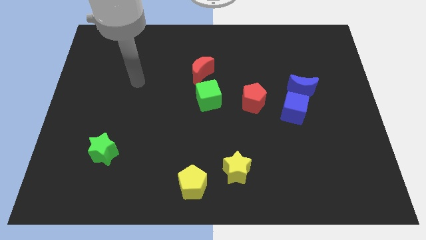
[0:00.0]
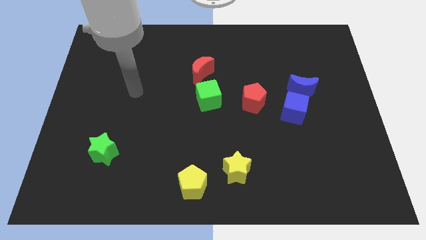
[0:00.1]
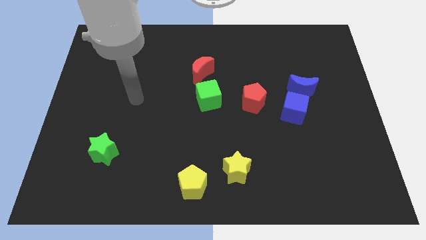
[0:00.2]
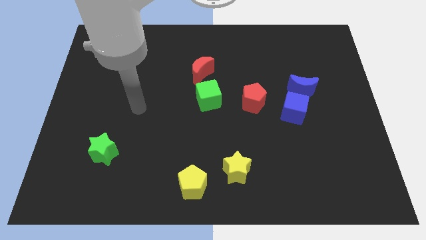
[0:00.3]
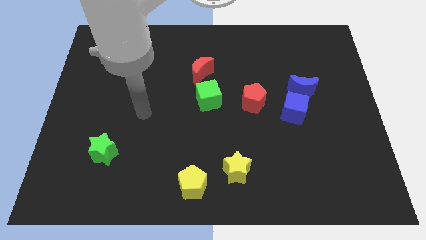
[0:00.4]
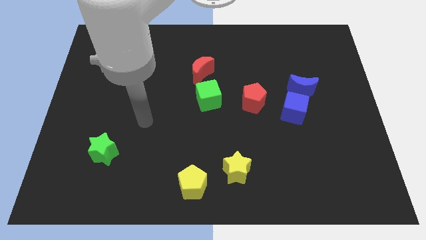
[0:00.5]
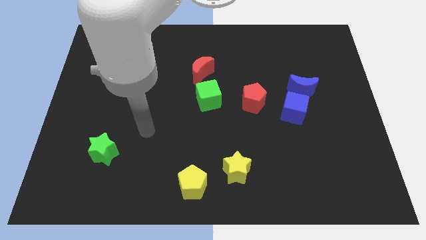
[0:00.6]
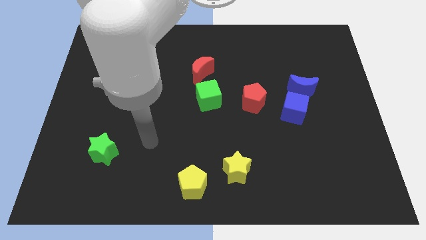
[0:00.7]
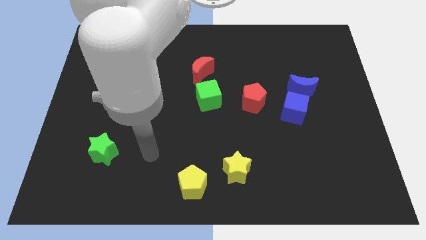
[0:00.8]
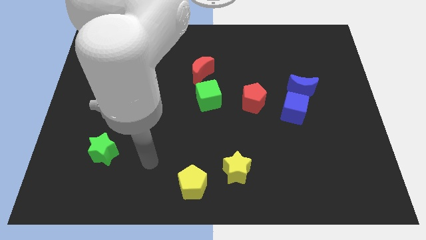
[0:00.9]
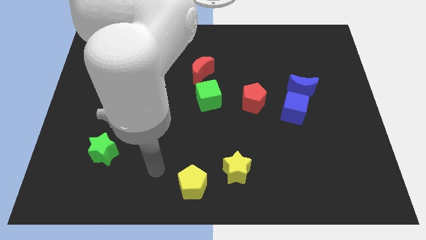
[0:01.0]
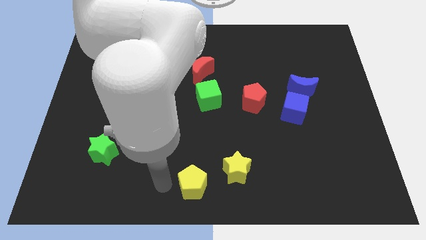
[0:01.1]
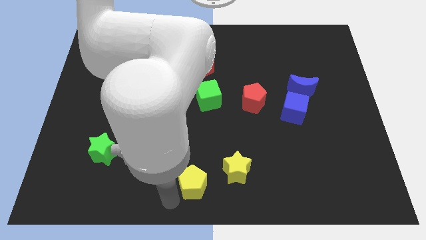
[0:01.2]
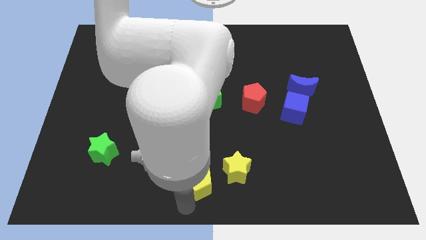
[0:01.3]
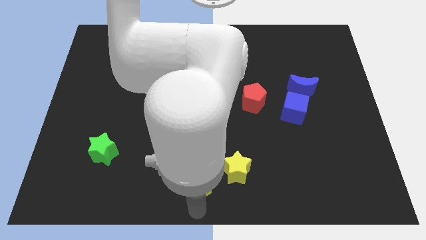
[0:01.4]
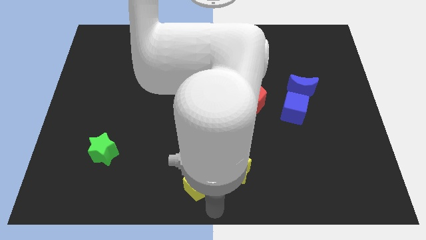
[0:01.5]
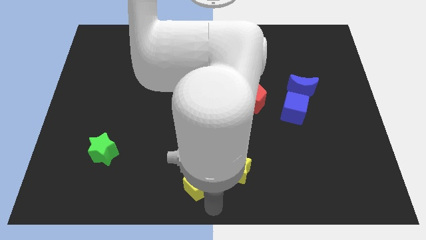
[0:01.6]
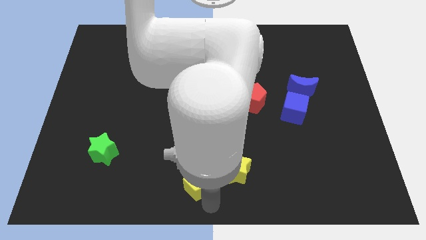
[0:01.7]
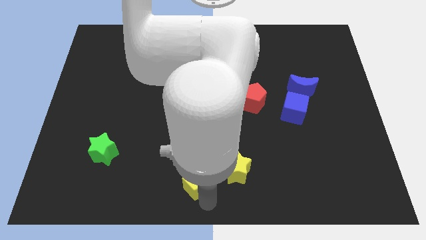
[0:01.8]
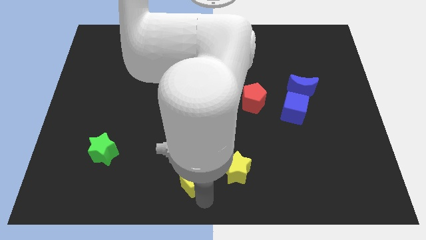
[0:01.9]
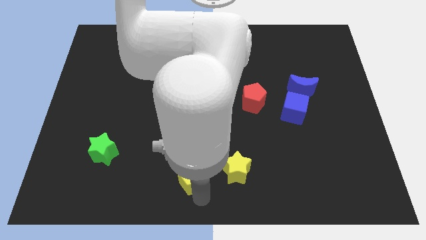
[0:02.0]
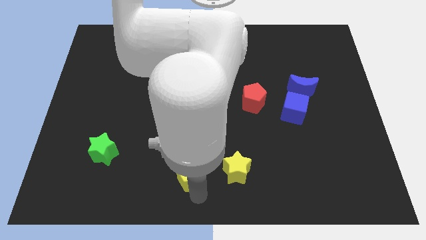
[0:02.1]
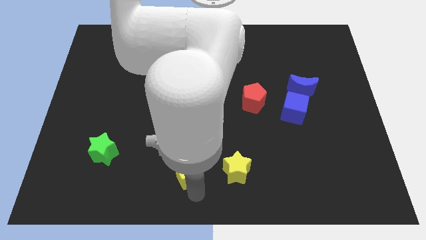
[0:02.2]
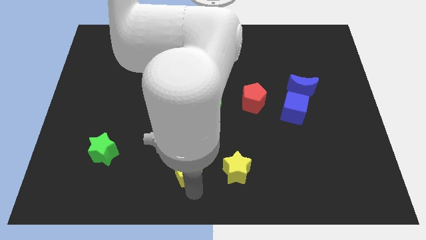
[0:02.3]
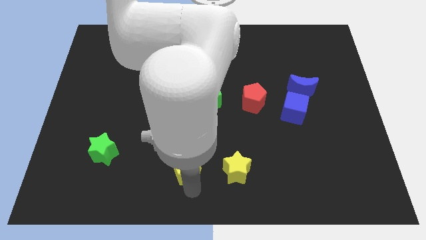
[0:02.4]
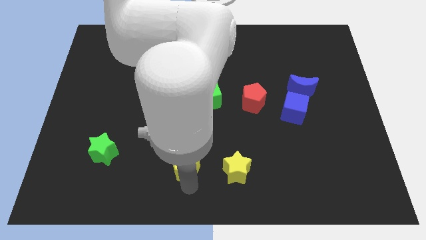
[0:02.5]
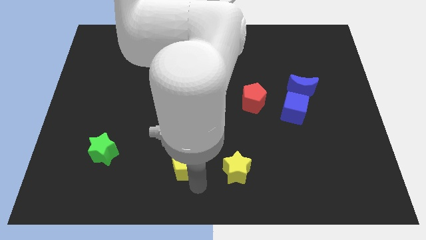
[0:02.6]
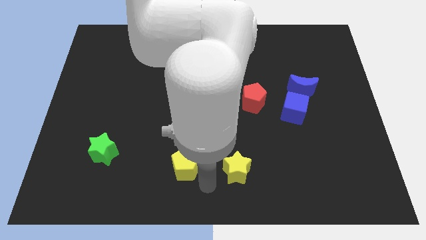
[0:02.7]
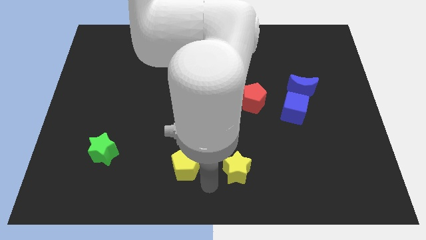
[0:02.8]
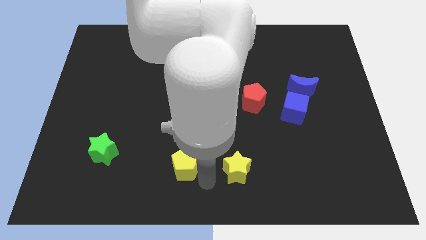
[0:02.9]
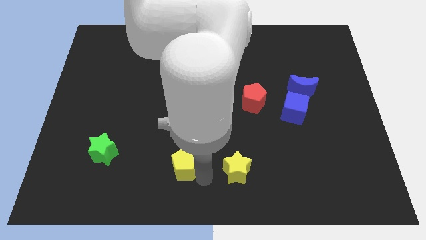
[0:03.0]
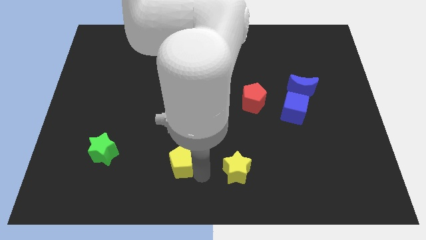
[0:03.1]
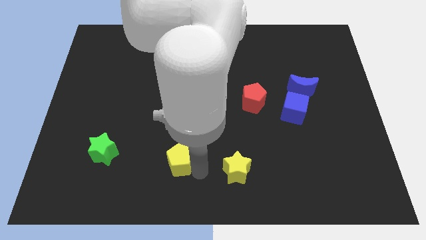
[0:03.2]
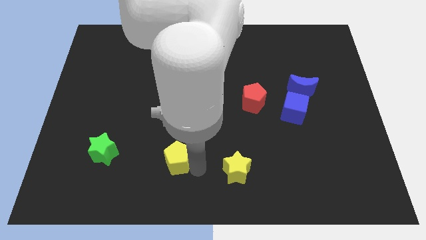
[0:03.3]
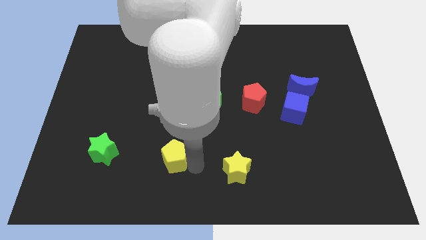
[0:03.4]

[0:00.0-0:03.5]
slide the yellow pentagon slightly up and to the left

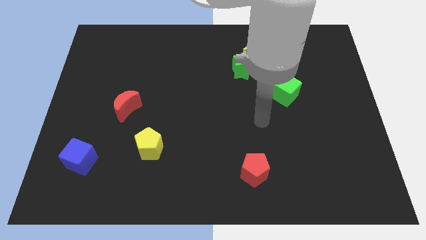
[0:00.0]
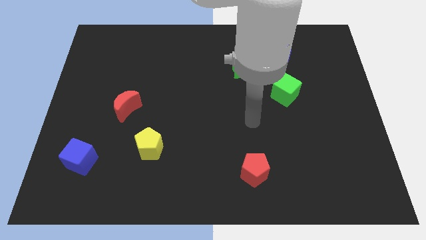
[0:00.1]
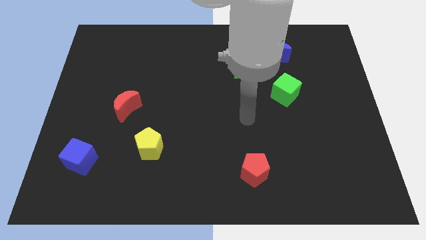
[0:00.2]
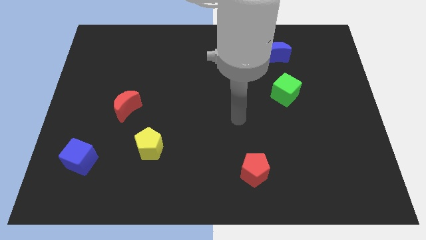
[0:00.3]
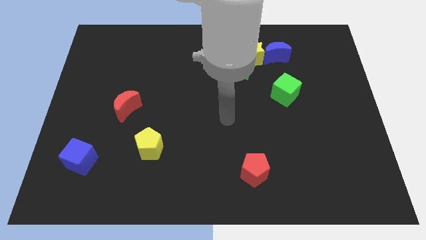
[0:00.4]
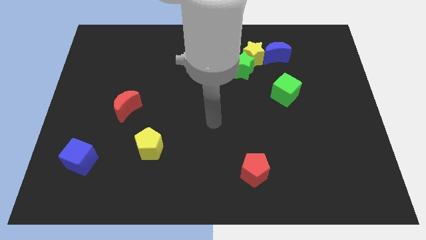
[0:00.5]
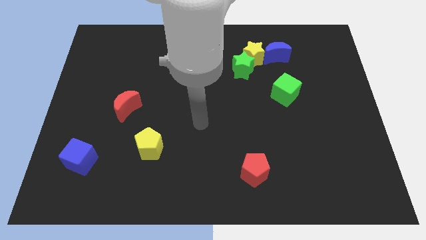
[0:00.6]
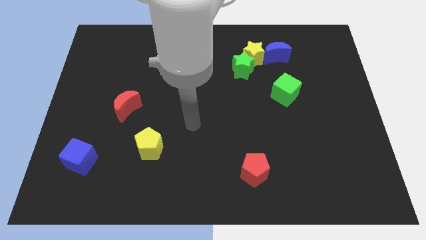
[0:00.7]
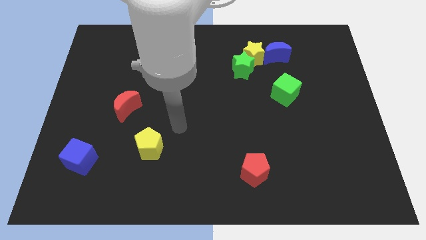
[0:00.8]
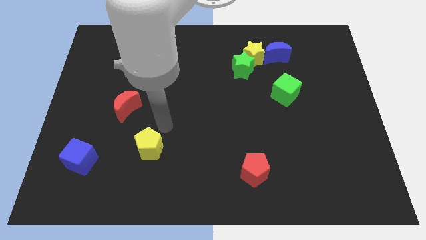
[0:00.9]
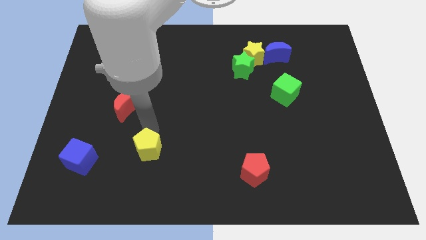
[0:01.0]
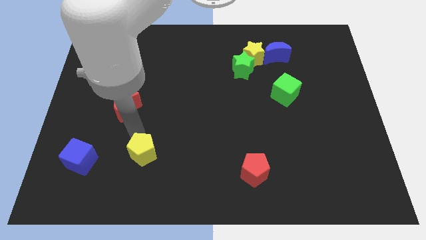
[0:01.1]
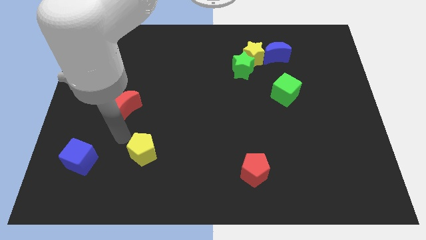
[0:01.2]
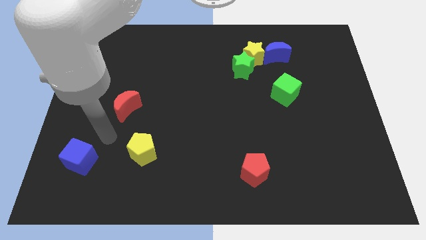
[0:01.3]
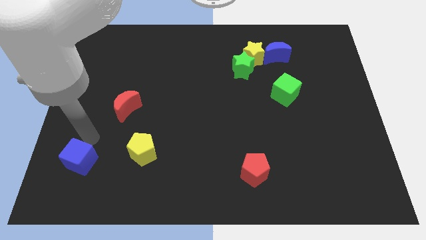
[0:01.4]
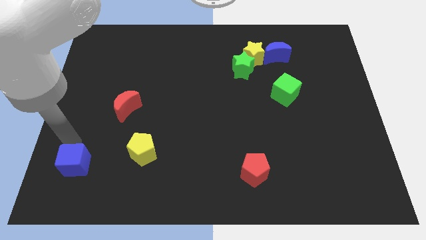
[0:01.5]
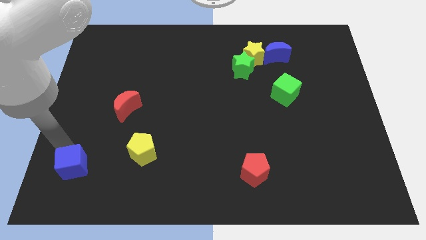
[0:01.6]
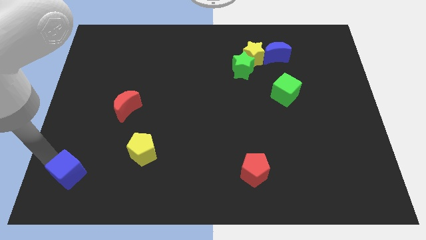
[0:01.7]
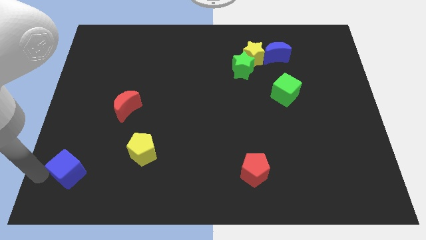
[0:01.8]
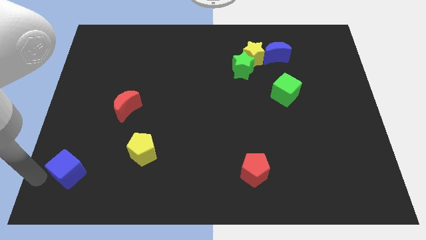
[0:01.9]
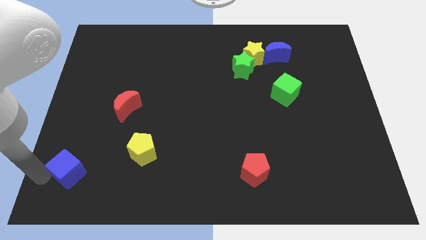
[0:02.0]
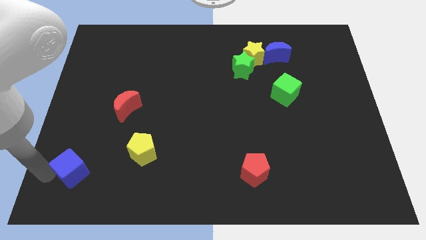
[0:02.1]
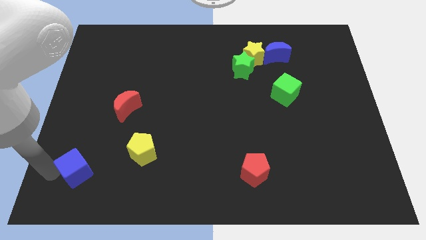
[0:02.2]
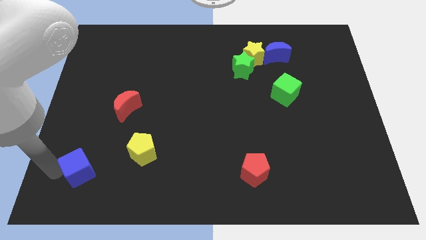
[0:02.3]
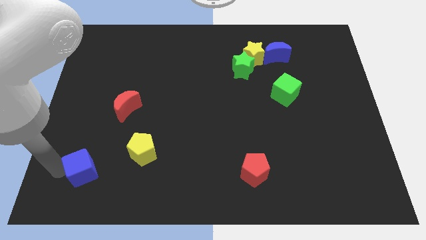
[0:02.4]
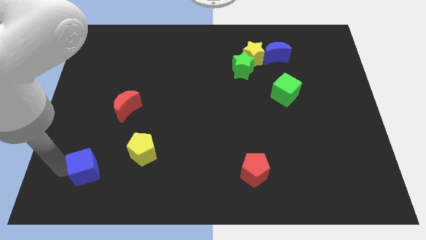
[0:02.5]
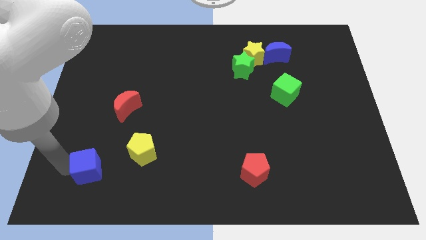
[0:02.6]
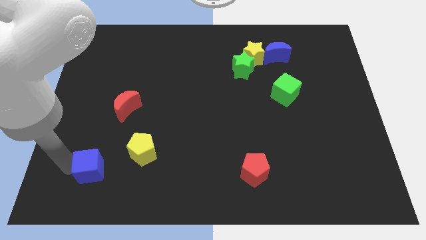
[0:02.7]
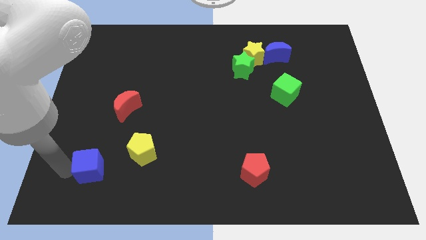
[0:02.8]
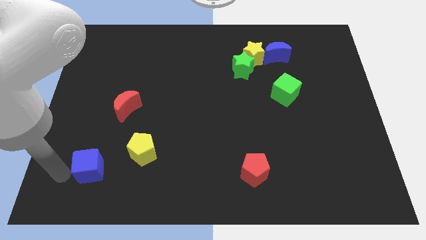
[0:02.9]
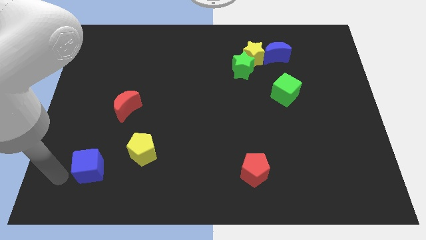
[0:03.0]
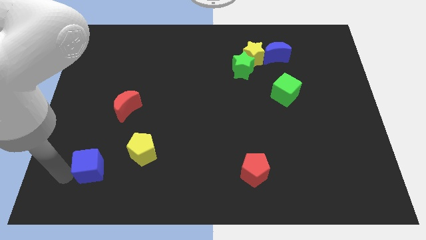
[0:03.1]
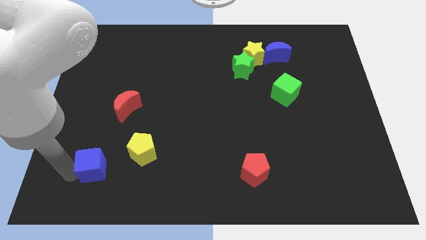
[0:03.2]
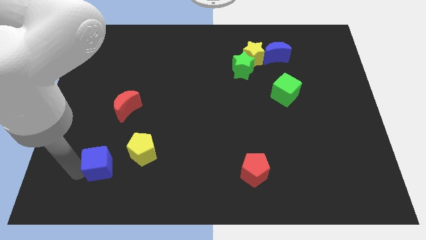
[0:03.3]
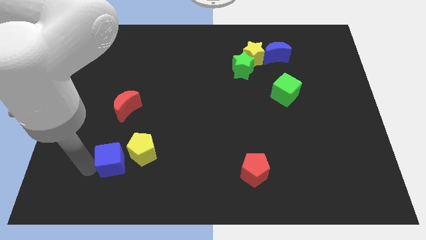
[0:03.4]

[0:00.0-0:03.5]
move the blue cube somewhat right

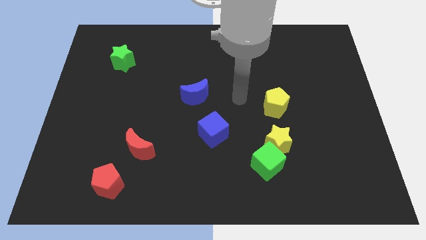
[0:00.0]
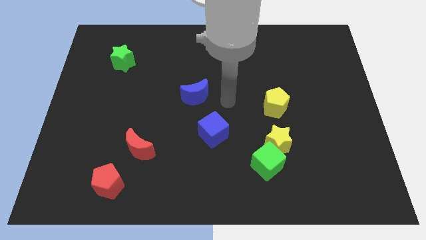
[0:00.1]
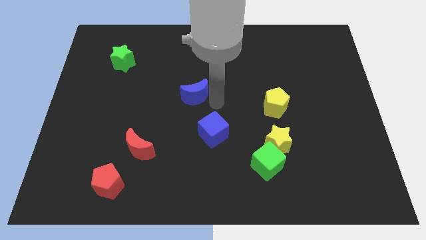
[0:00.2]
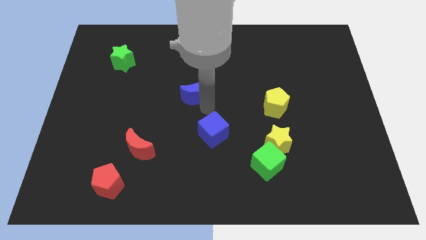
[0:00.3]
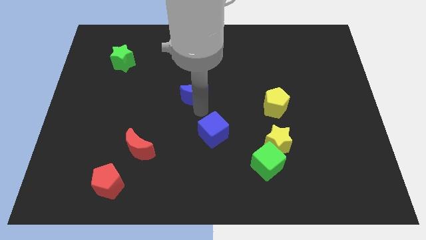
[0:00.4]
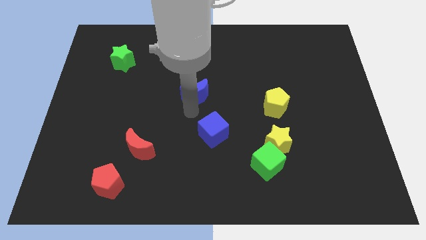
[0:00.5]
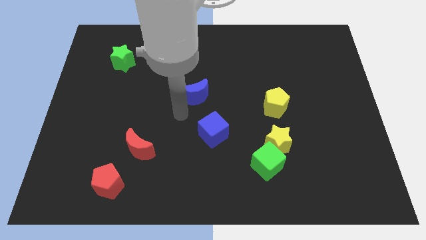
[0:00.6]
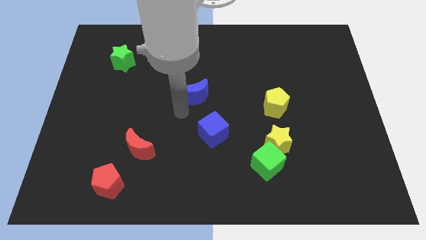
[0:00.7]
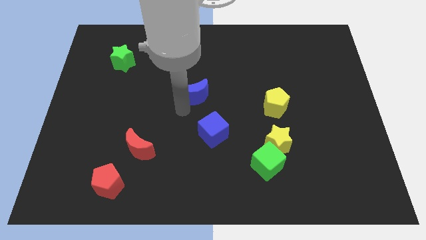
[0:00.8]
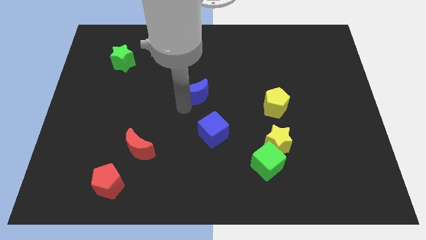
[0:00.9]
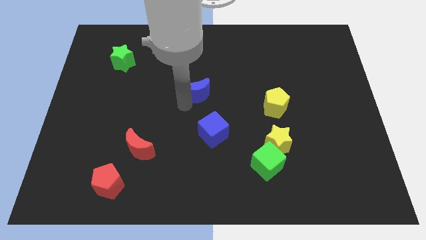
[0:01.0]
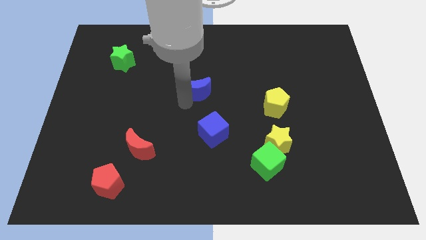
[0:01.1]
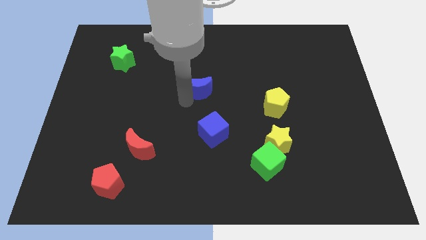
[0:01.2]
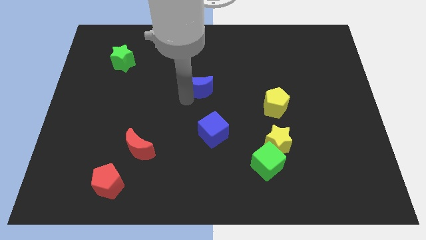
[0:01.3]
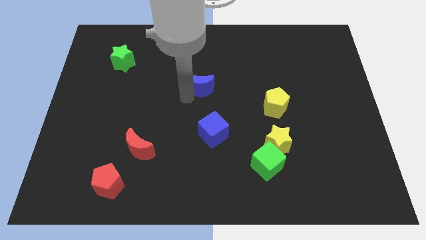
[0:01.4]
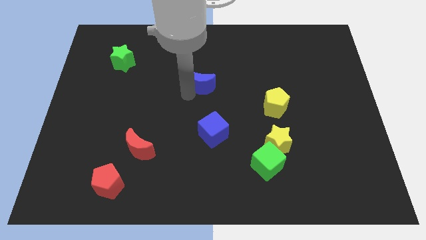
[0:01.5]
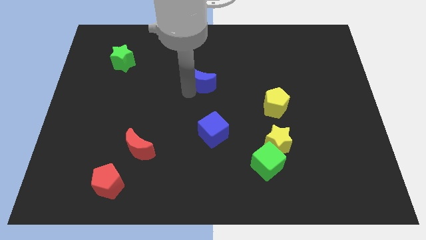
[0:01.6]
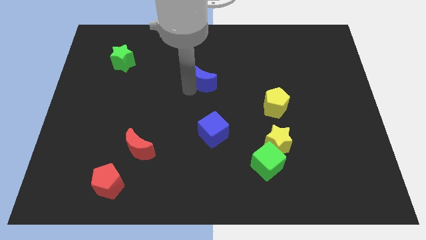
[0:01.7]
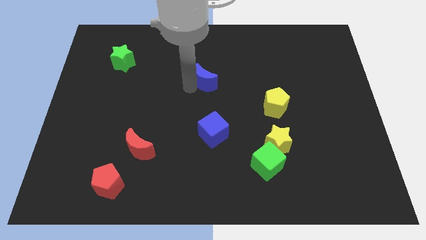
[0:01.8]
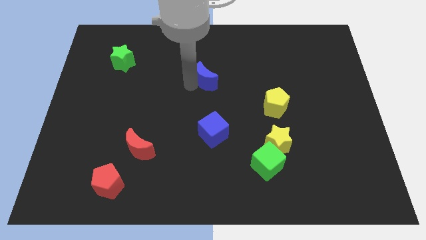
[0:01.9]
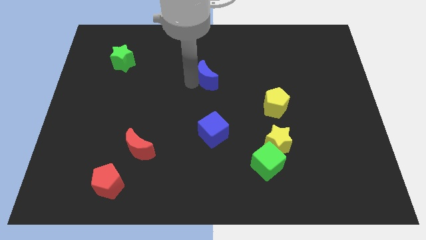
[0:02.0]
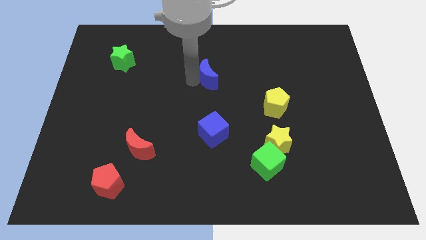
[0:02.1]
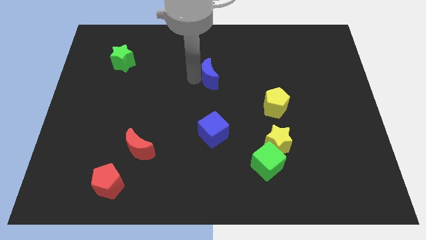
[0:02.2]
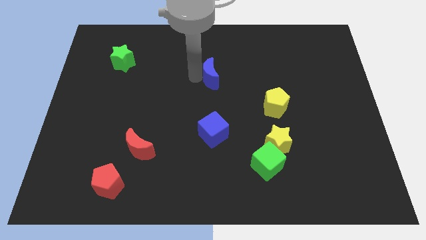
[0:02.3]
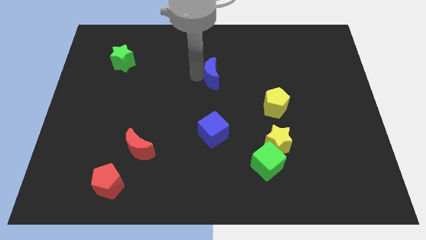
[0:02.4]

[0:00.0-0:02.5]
slightly move the blue moon up and right
